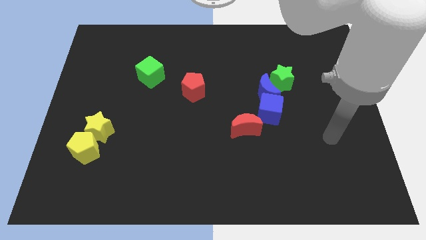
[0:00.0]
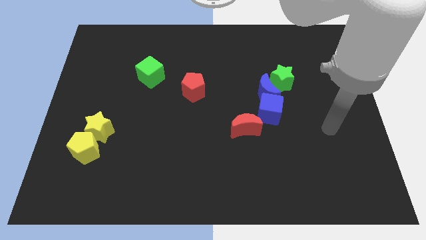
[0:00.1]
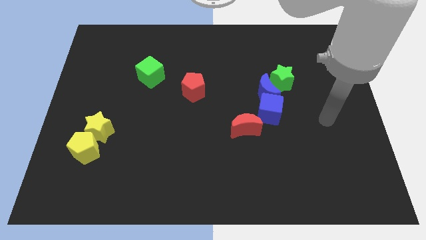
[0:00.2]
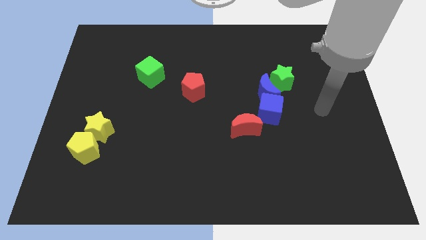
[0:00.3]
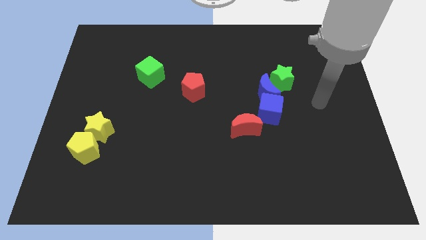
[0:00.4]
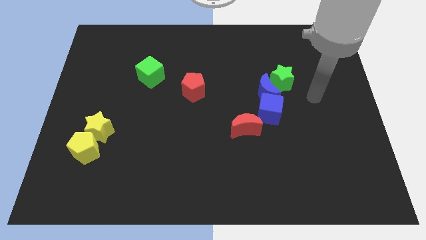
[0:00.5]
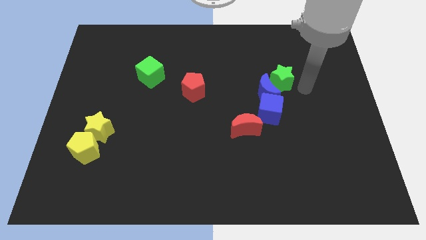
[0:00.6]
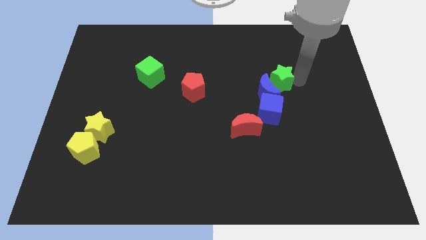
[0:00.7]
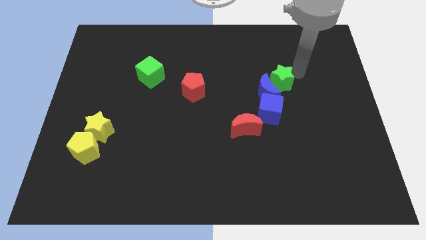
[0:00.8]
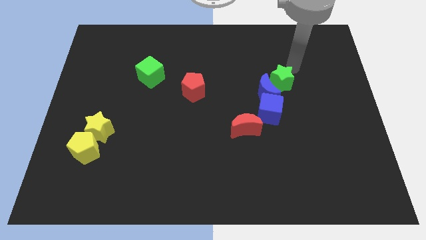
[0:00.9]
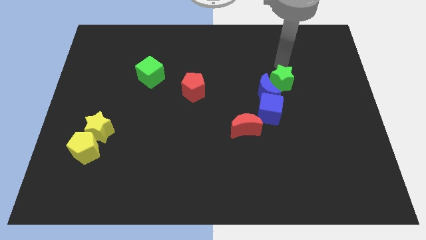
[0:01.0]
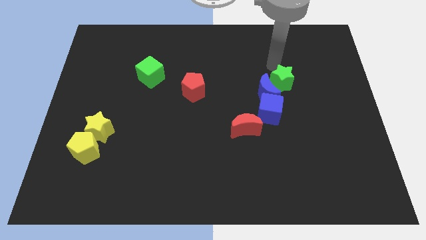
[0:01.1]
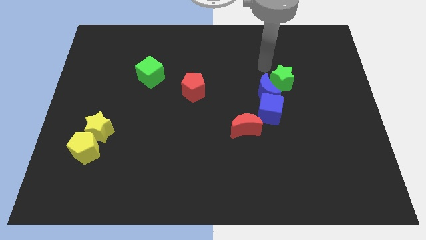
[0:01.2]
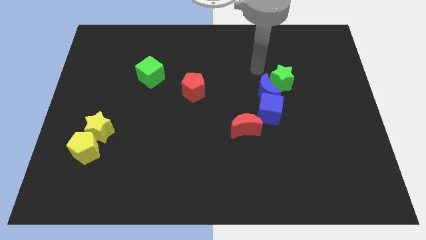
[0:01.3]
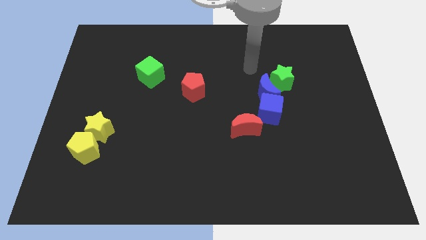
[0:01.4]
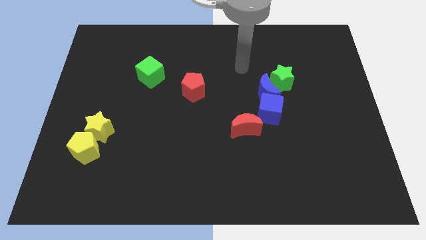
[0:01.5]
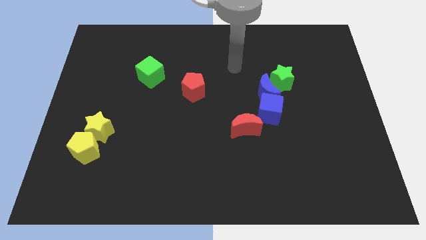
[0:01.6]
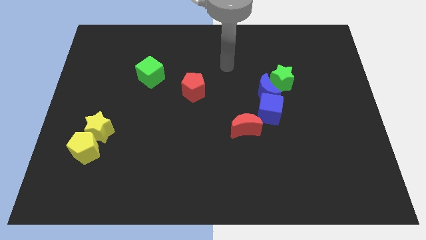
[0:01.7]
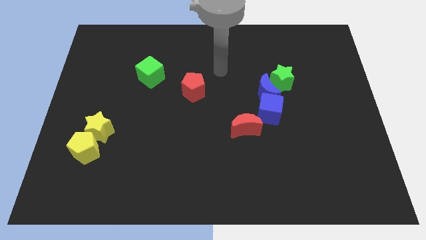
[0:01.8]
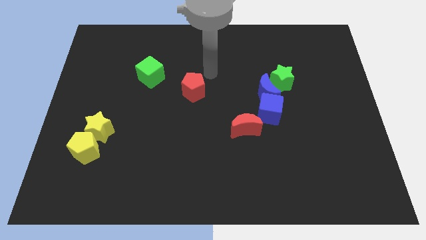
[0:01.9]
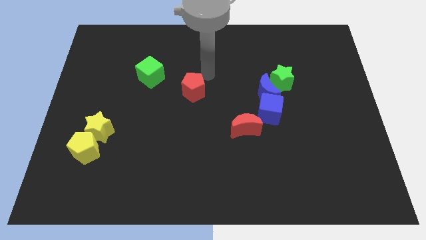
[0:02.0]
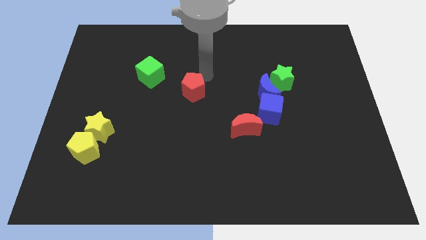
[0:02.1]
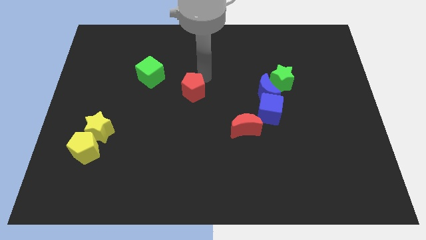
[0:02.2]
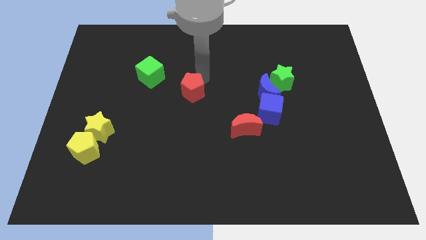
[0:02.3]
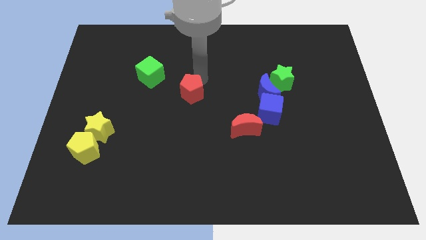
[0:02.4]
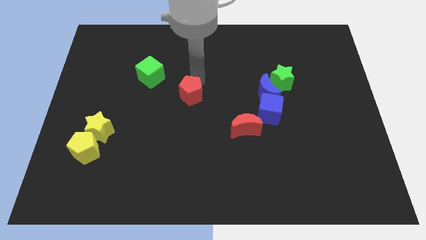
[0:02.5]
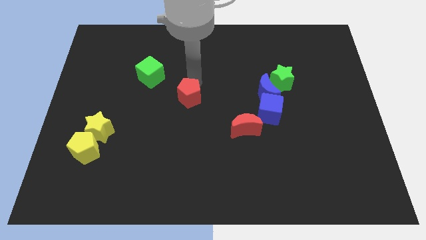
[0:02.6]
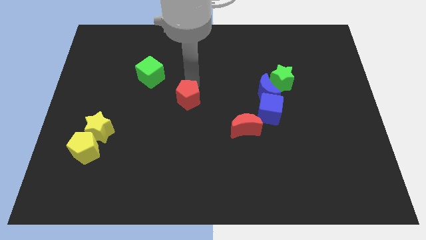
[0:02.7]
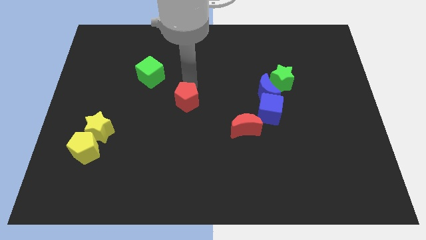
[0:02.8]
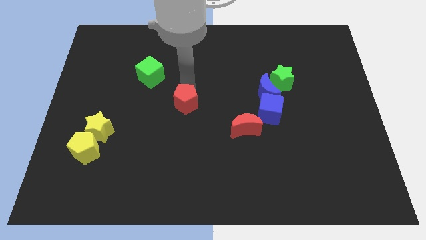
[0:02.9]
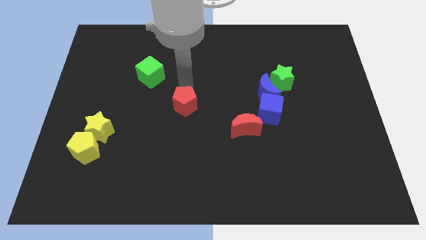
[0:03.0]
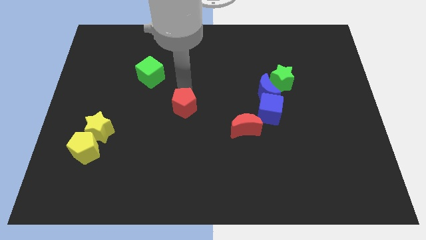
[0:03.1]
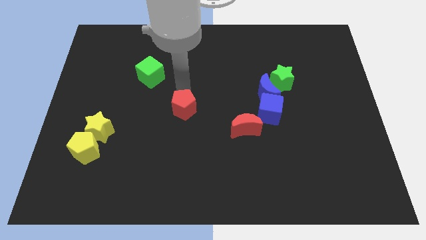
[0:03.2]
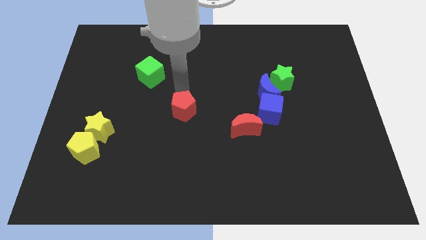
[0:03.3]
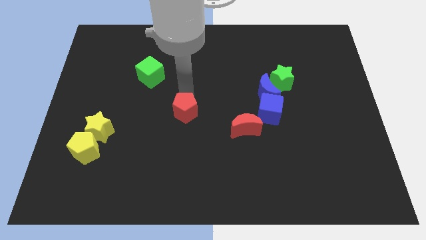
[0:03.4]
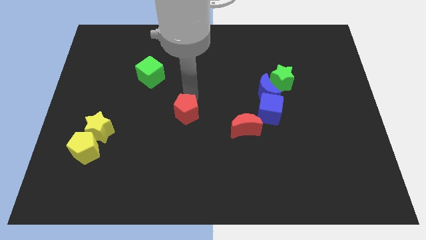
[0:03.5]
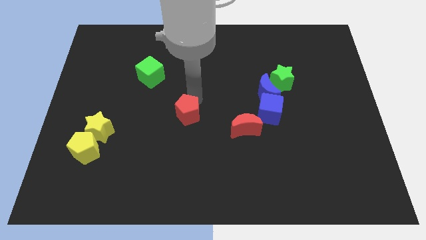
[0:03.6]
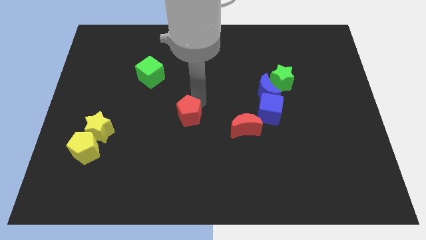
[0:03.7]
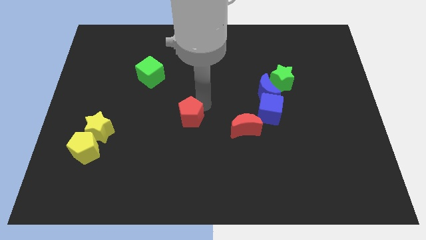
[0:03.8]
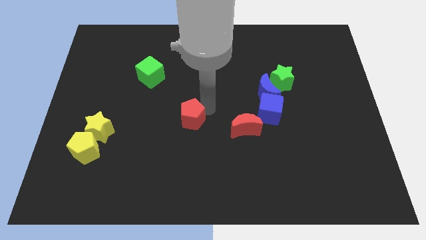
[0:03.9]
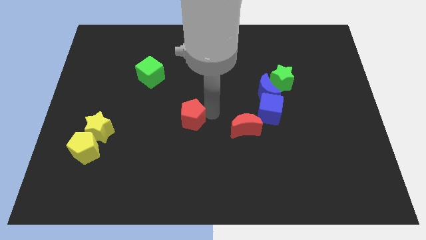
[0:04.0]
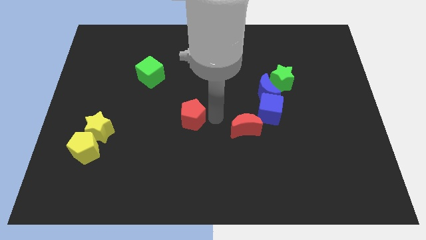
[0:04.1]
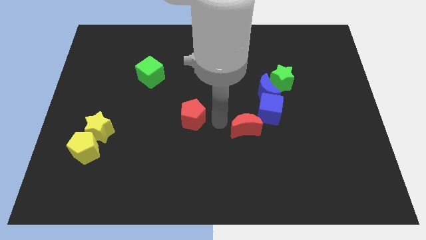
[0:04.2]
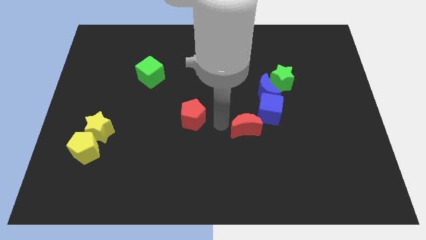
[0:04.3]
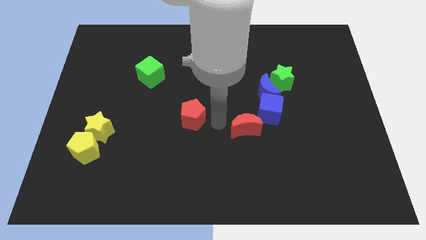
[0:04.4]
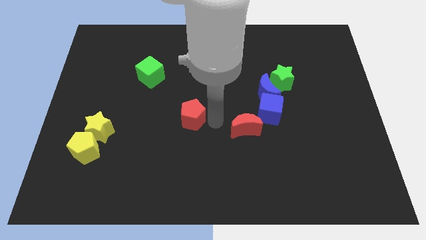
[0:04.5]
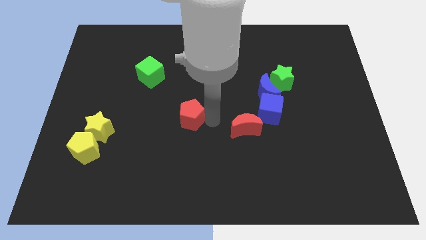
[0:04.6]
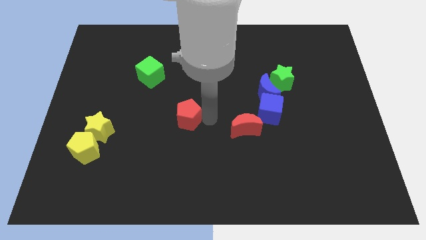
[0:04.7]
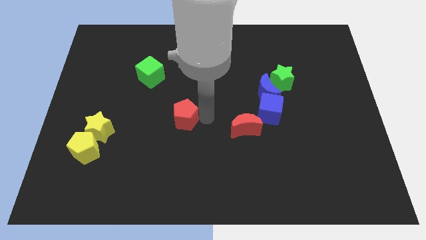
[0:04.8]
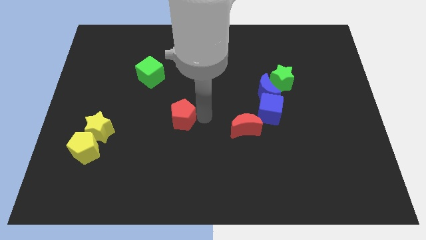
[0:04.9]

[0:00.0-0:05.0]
move the red pentagon a bit diagonally down and to the left

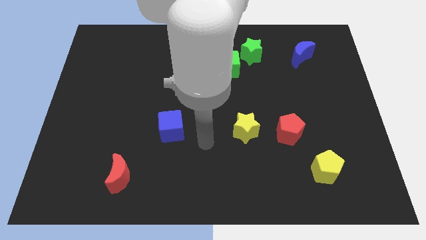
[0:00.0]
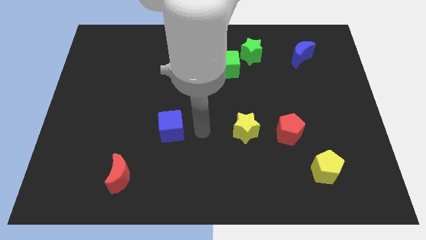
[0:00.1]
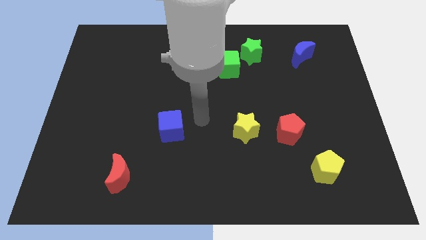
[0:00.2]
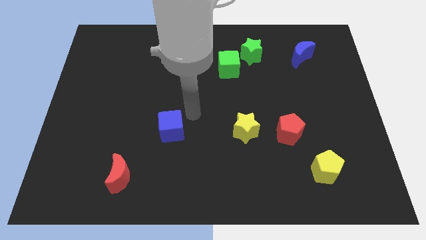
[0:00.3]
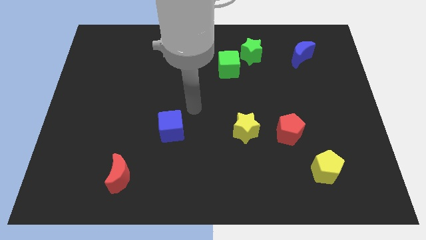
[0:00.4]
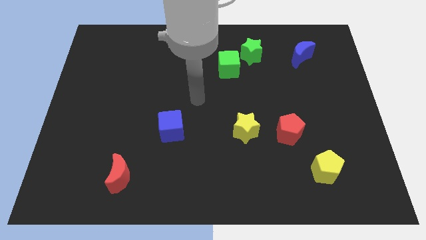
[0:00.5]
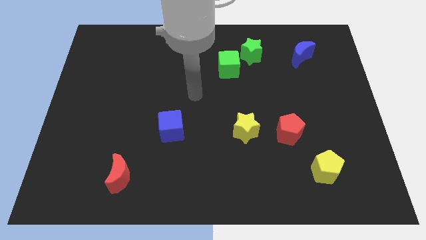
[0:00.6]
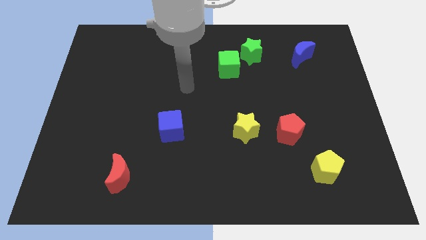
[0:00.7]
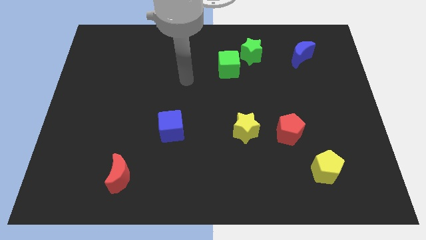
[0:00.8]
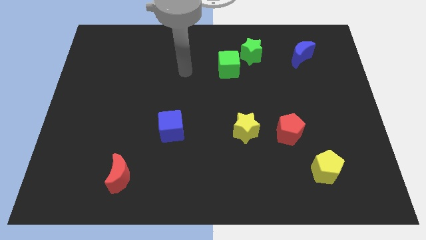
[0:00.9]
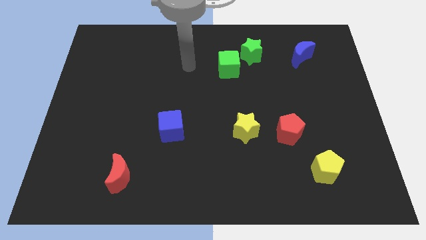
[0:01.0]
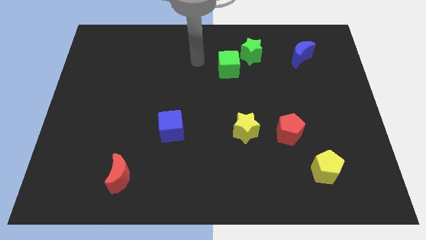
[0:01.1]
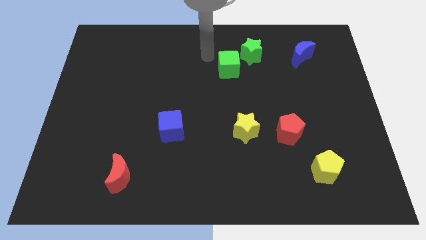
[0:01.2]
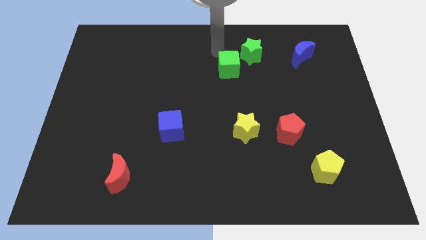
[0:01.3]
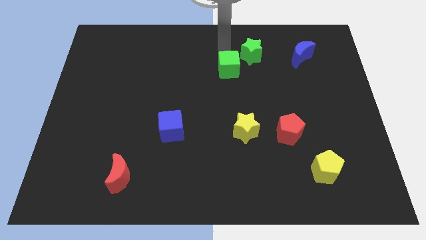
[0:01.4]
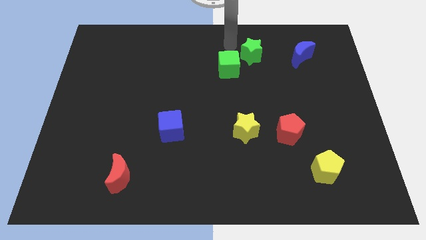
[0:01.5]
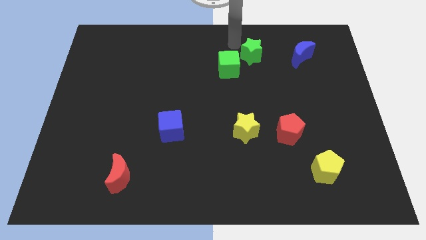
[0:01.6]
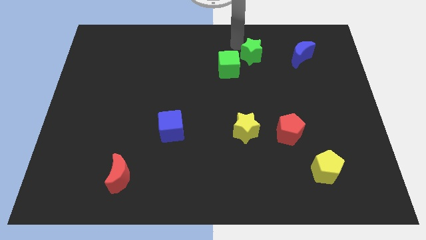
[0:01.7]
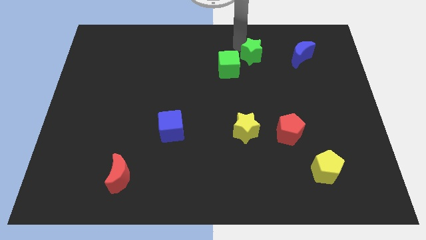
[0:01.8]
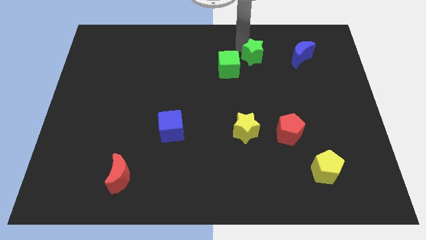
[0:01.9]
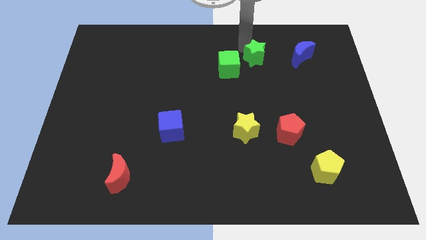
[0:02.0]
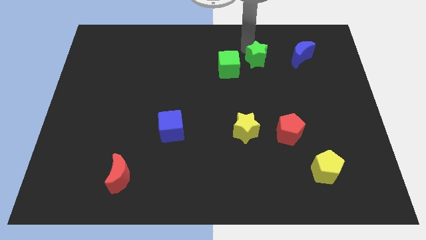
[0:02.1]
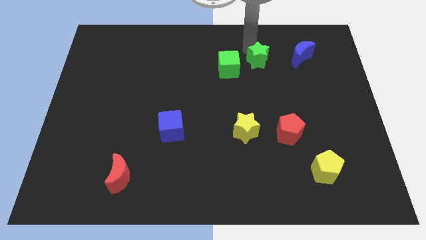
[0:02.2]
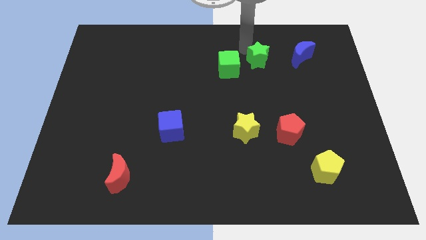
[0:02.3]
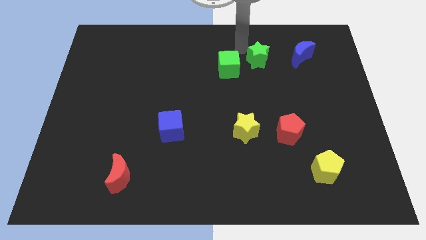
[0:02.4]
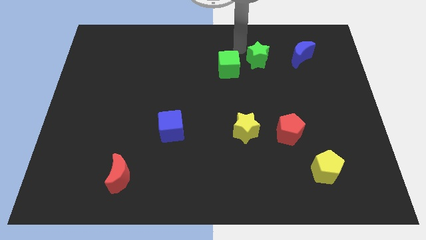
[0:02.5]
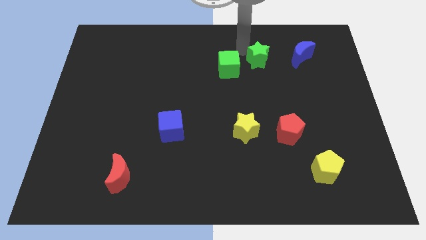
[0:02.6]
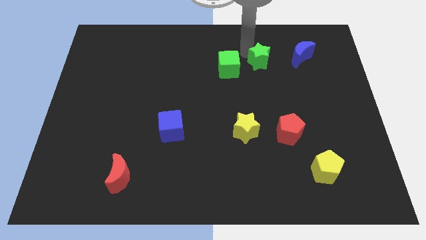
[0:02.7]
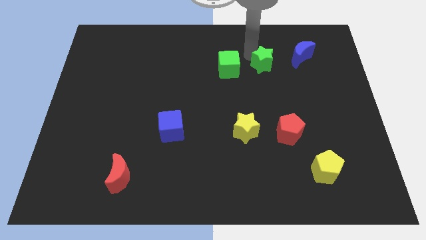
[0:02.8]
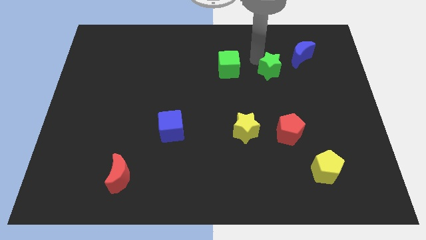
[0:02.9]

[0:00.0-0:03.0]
slightly slide the green star diagonally down and to the right

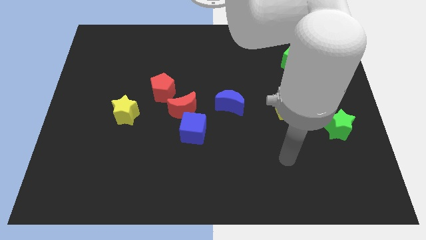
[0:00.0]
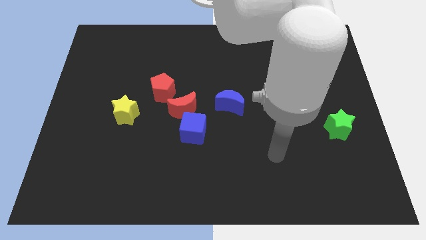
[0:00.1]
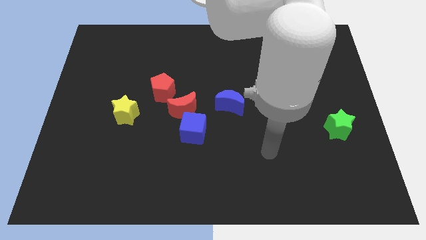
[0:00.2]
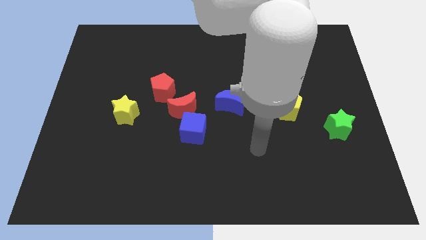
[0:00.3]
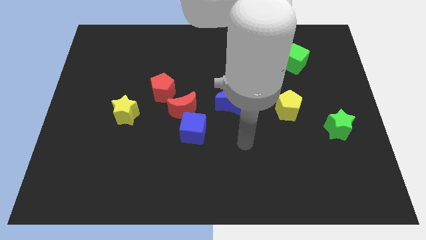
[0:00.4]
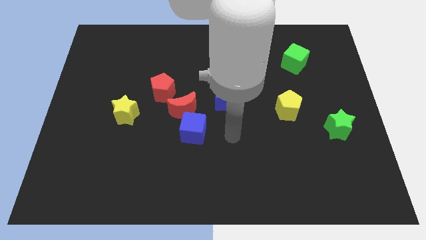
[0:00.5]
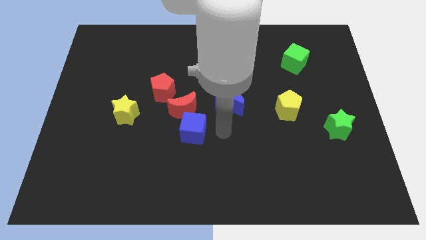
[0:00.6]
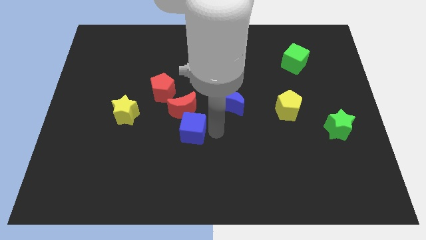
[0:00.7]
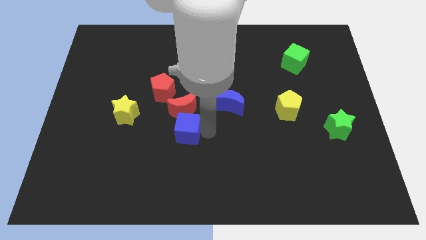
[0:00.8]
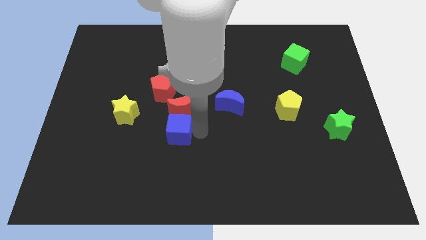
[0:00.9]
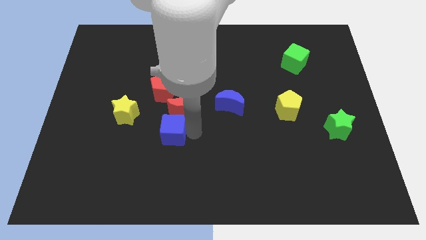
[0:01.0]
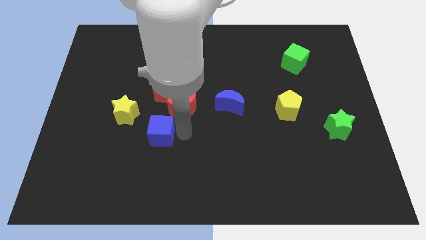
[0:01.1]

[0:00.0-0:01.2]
move the blue cube left slightly
